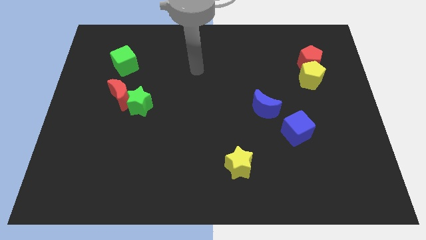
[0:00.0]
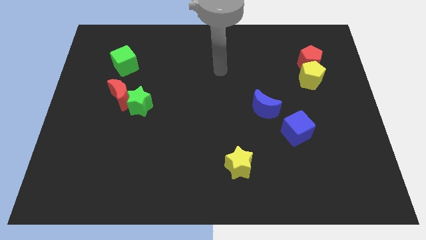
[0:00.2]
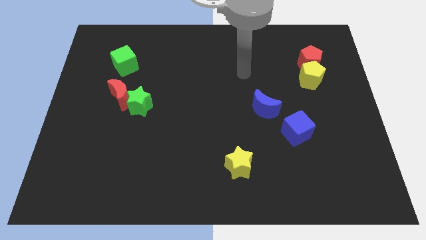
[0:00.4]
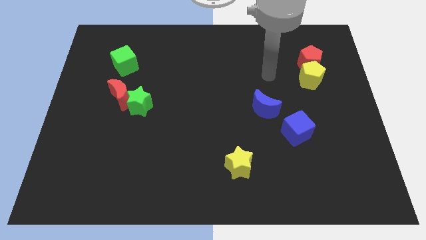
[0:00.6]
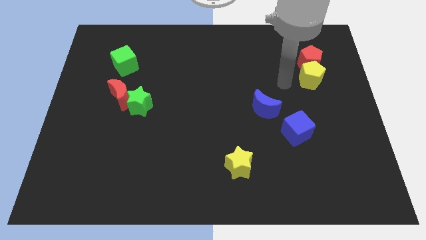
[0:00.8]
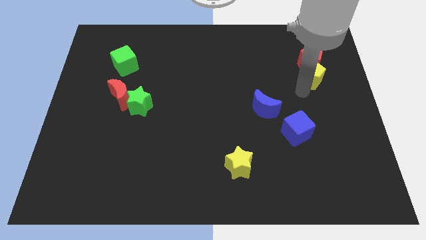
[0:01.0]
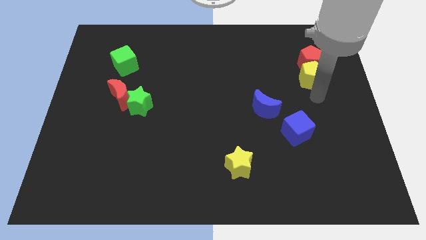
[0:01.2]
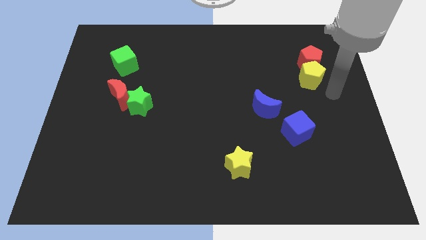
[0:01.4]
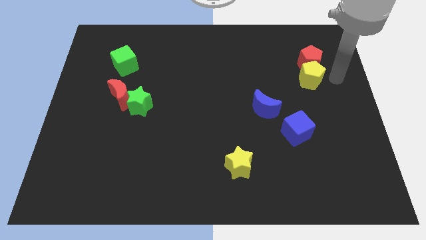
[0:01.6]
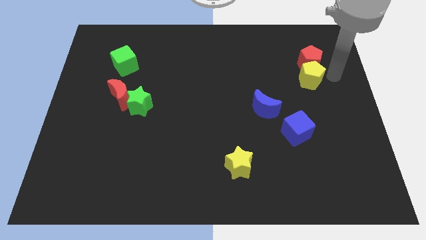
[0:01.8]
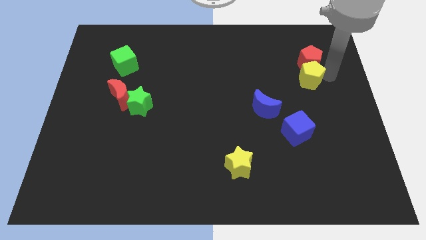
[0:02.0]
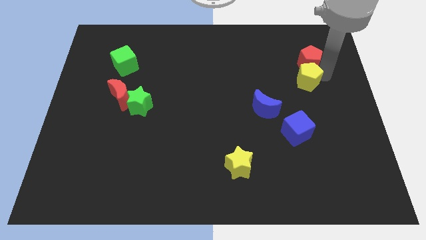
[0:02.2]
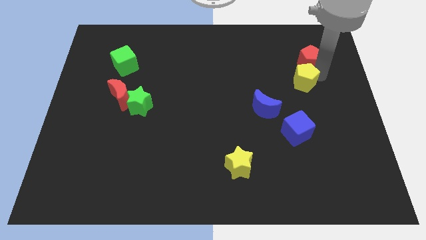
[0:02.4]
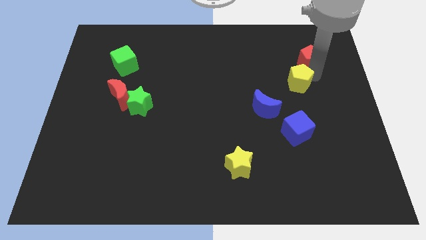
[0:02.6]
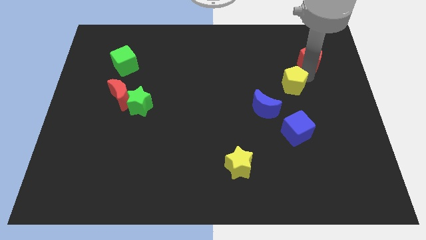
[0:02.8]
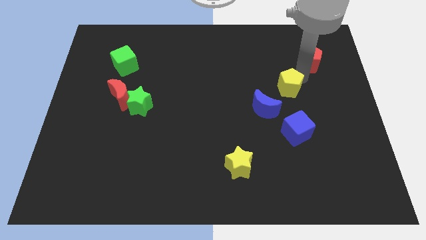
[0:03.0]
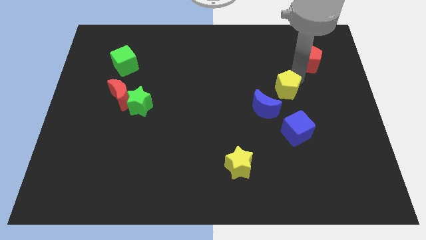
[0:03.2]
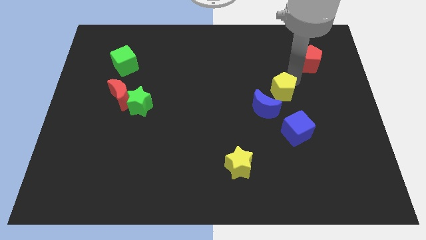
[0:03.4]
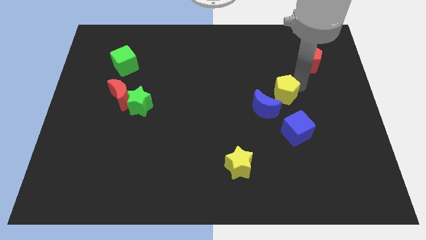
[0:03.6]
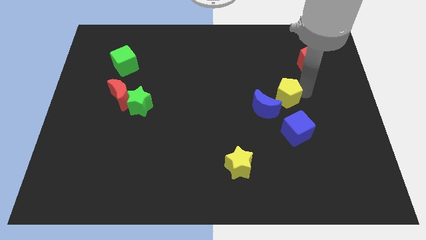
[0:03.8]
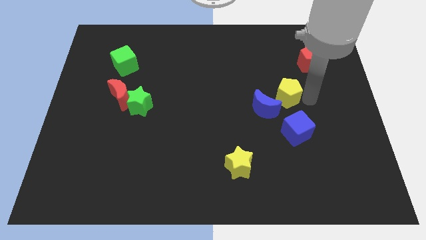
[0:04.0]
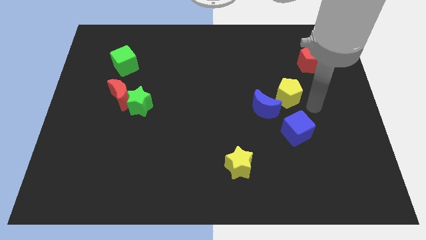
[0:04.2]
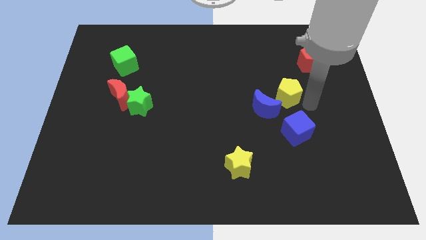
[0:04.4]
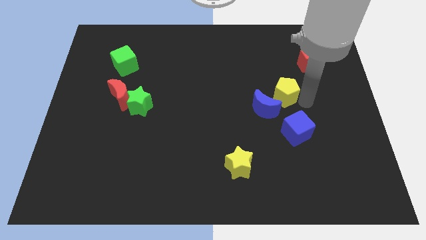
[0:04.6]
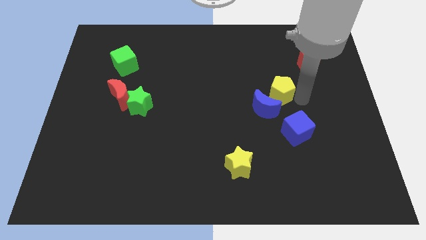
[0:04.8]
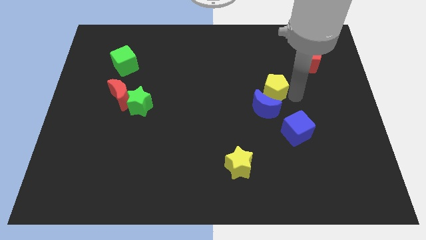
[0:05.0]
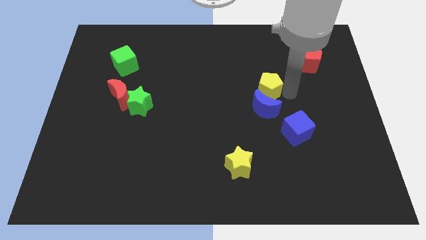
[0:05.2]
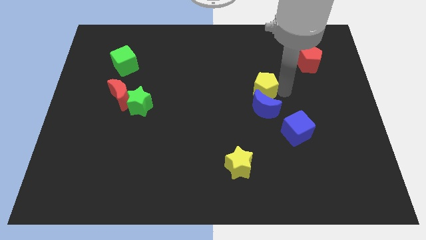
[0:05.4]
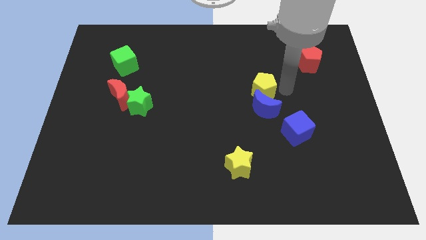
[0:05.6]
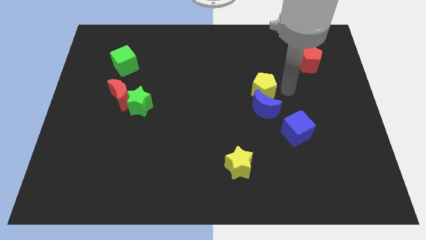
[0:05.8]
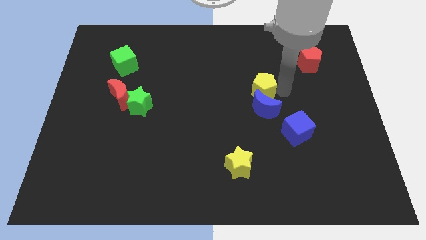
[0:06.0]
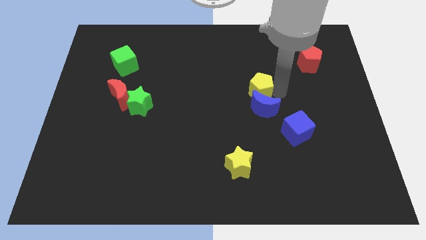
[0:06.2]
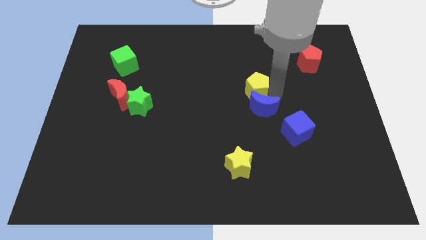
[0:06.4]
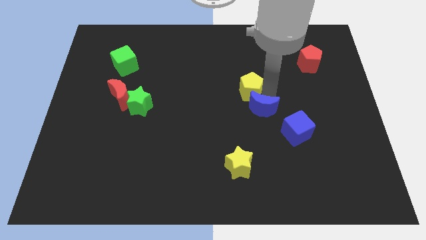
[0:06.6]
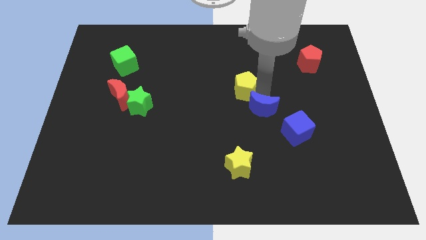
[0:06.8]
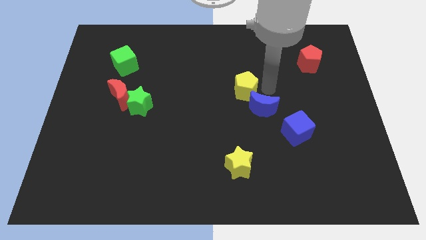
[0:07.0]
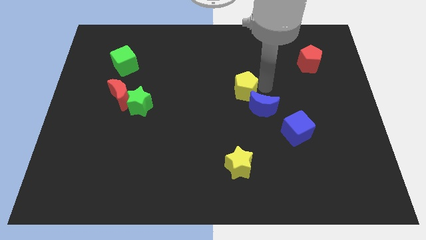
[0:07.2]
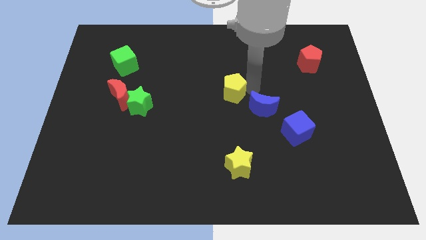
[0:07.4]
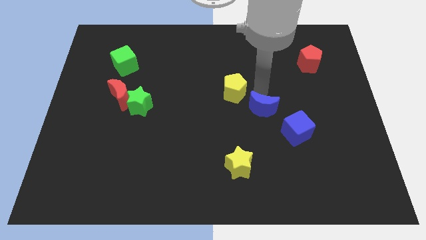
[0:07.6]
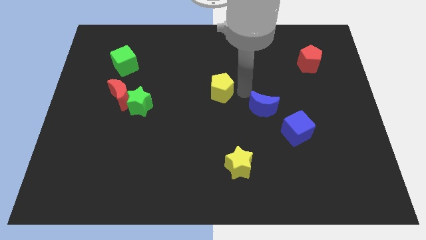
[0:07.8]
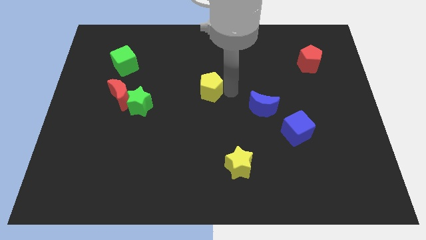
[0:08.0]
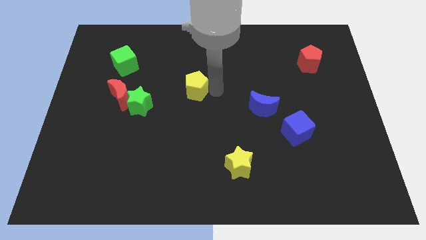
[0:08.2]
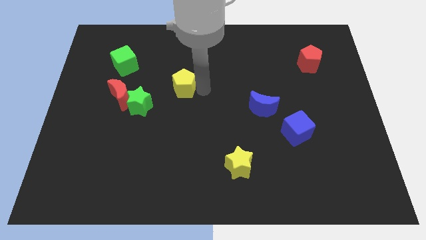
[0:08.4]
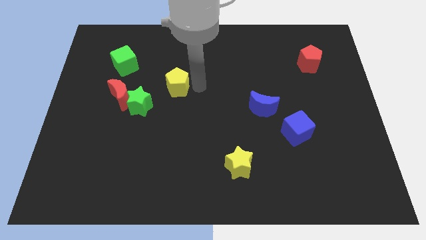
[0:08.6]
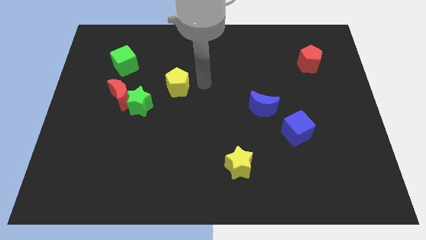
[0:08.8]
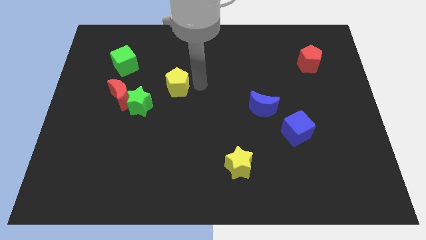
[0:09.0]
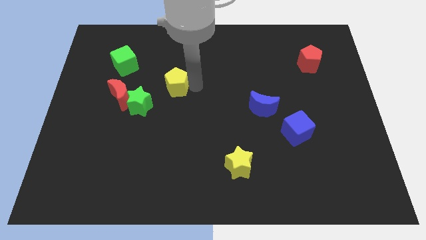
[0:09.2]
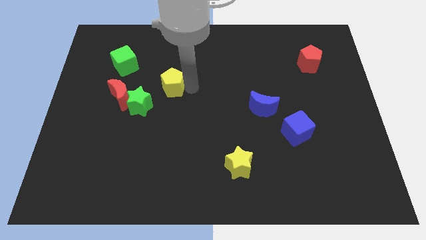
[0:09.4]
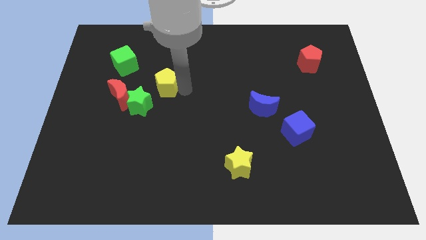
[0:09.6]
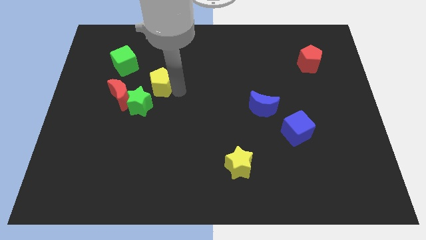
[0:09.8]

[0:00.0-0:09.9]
put the yellow pentagon diagonally down and to the right of the green cube

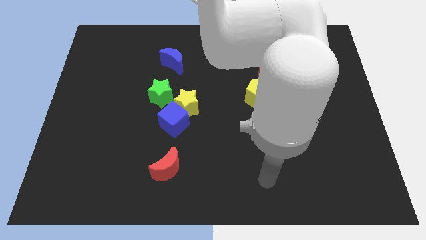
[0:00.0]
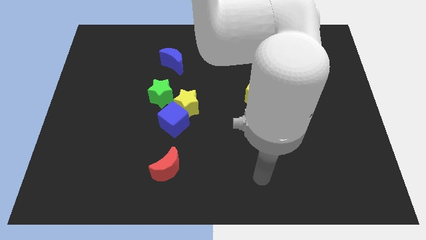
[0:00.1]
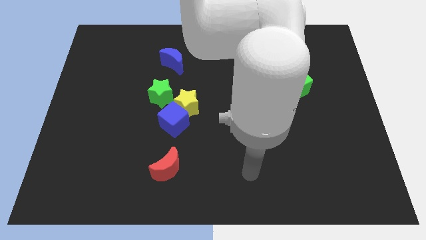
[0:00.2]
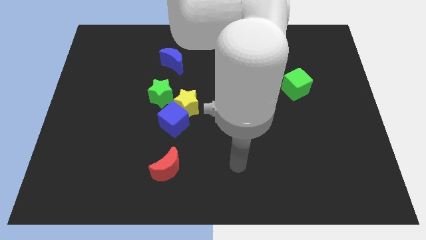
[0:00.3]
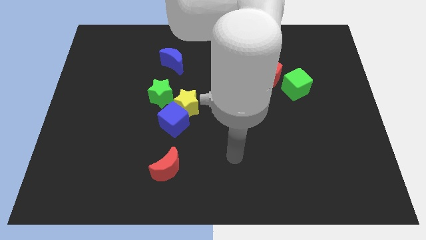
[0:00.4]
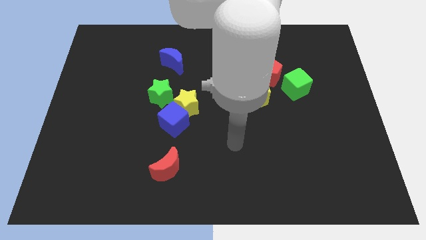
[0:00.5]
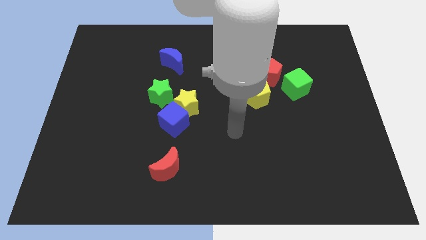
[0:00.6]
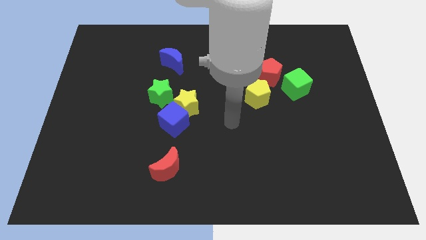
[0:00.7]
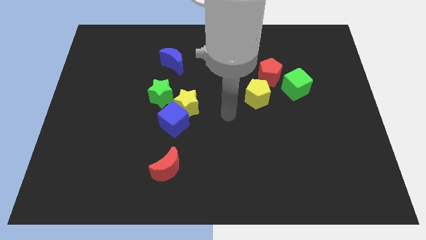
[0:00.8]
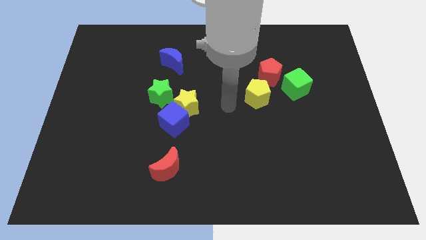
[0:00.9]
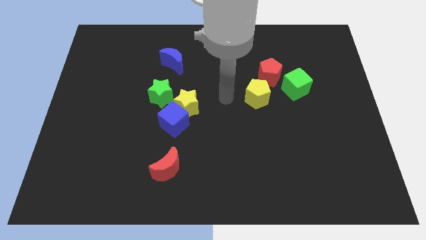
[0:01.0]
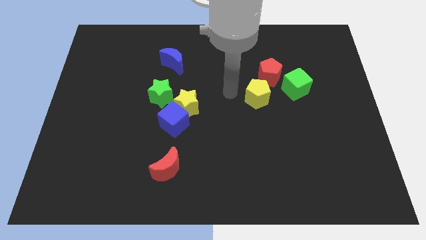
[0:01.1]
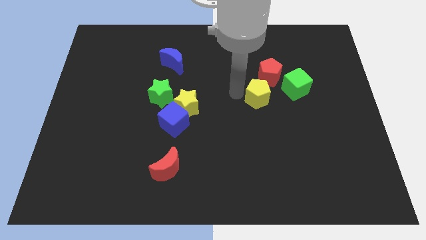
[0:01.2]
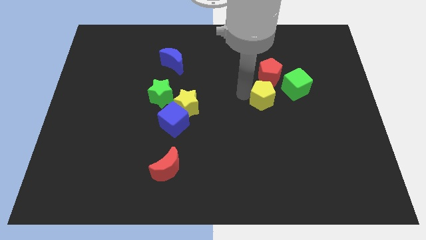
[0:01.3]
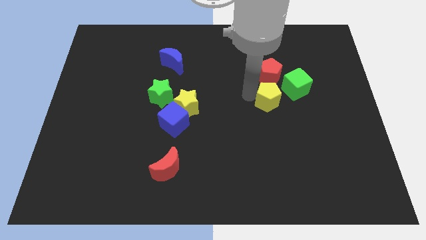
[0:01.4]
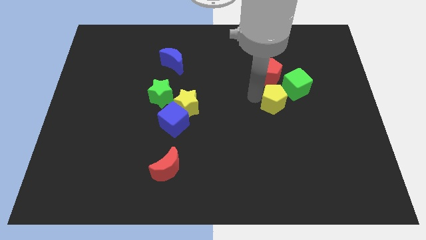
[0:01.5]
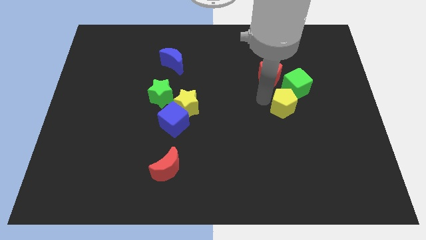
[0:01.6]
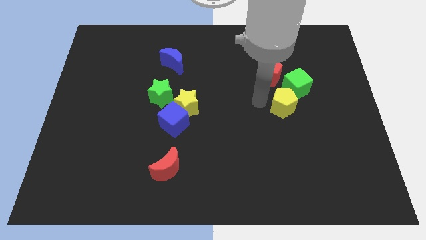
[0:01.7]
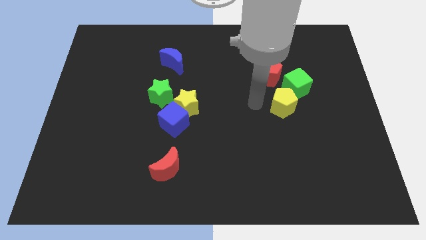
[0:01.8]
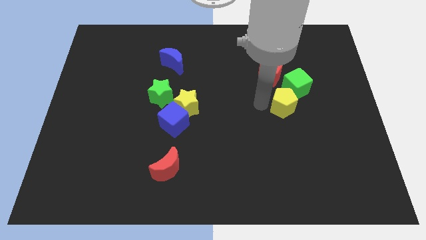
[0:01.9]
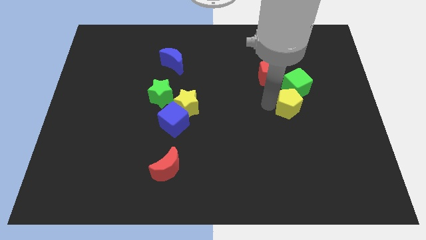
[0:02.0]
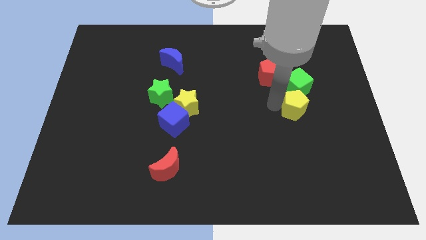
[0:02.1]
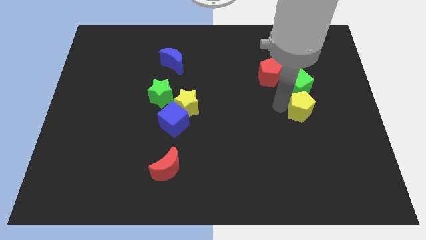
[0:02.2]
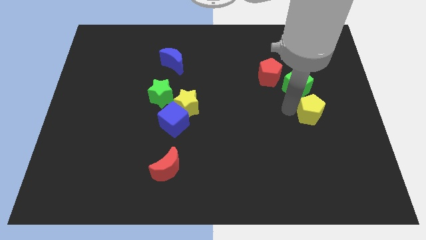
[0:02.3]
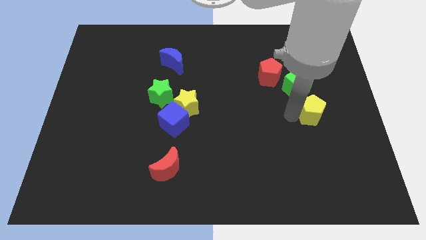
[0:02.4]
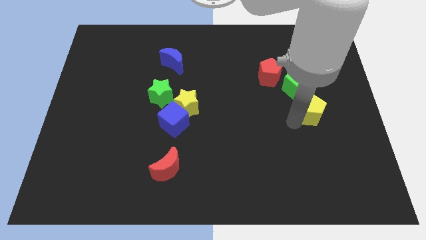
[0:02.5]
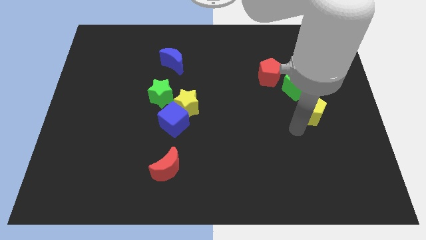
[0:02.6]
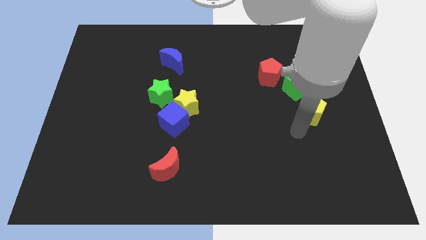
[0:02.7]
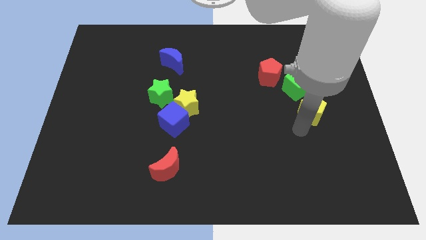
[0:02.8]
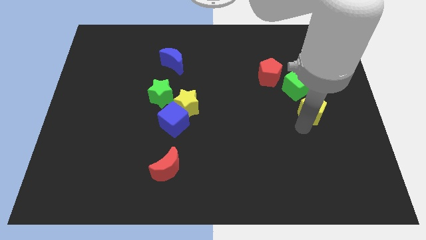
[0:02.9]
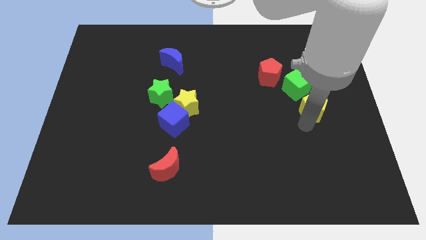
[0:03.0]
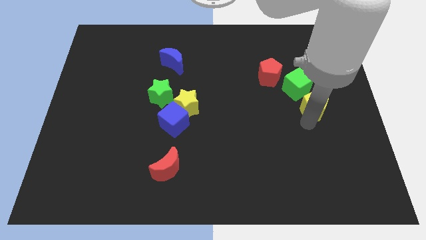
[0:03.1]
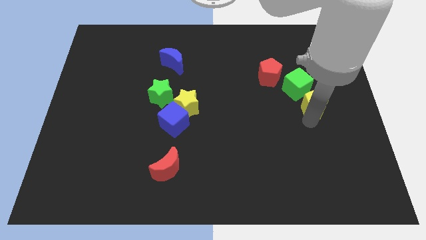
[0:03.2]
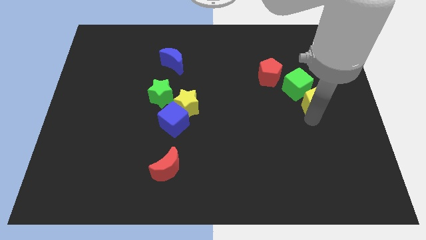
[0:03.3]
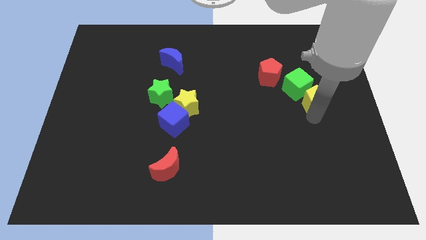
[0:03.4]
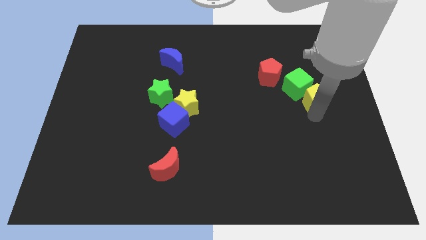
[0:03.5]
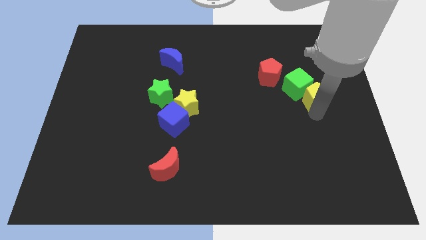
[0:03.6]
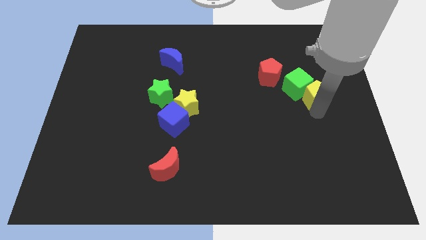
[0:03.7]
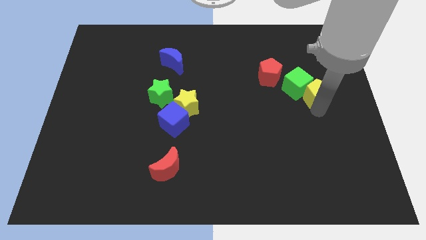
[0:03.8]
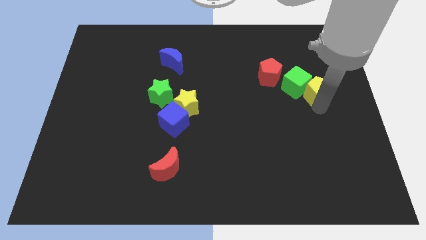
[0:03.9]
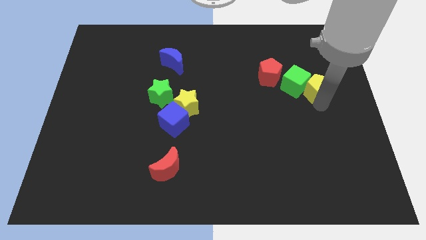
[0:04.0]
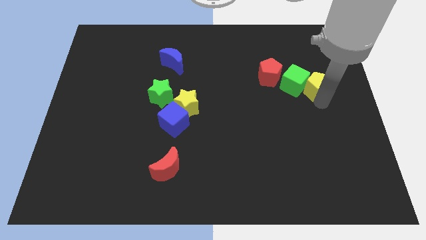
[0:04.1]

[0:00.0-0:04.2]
put the yellow pentagon to the top right side of the green cube
